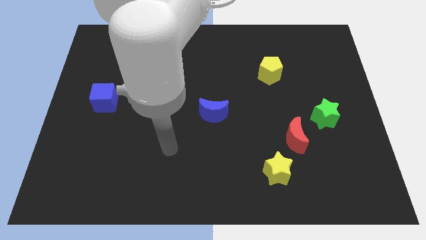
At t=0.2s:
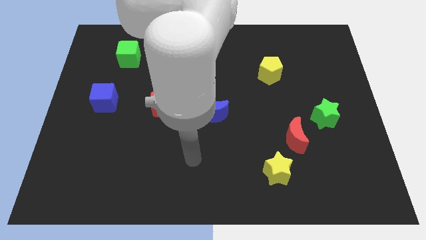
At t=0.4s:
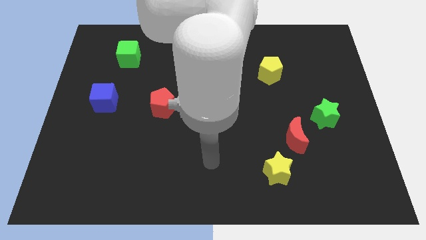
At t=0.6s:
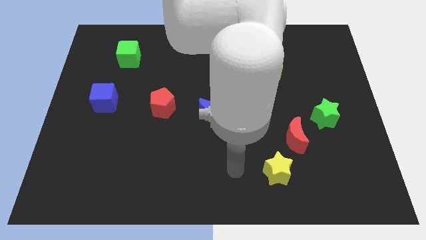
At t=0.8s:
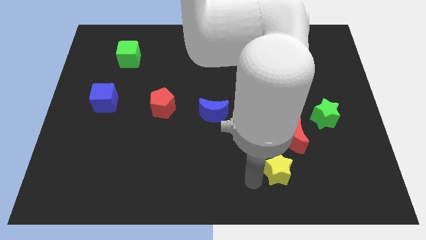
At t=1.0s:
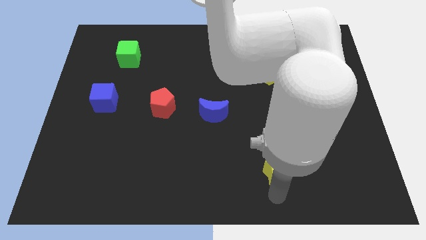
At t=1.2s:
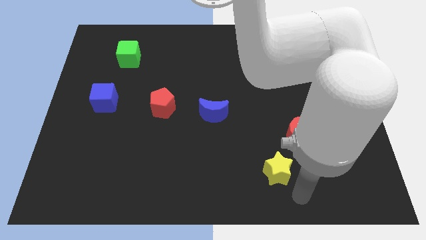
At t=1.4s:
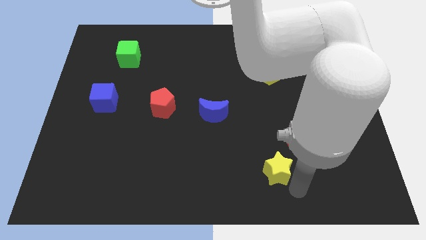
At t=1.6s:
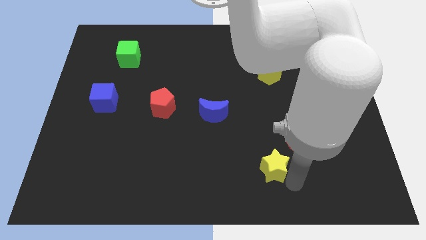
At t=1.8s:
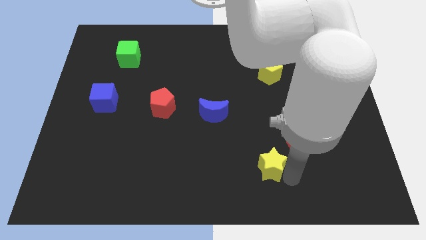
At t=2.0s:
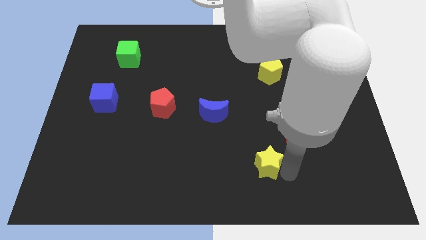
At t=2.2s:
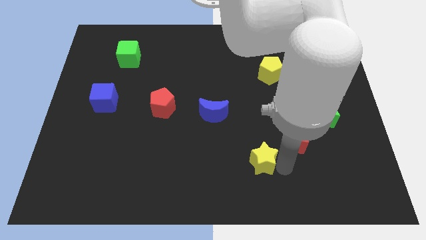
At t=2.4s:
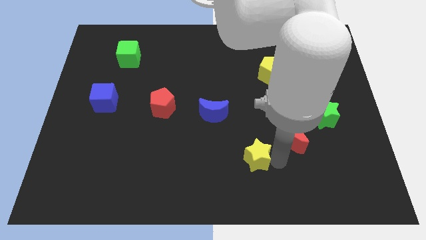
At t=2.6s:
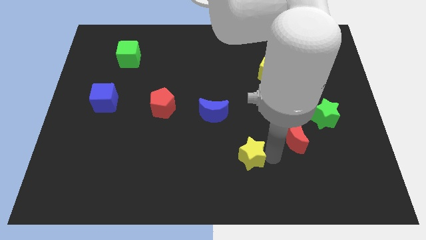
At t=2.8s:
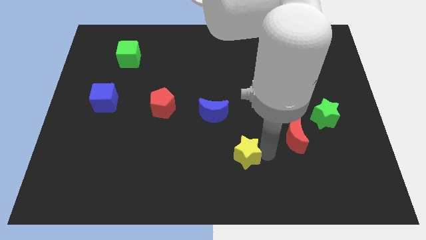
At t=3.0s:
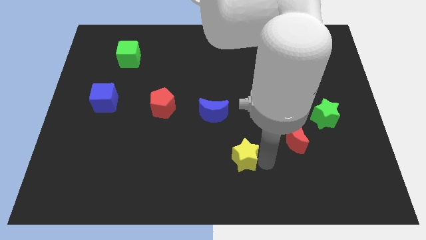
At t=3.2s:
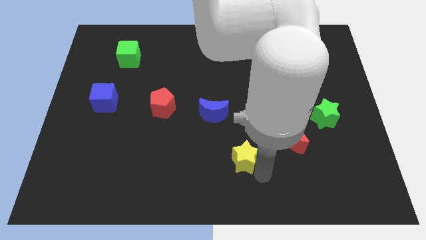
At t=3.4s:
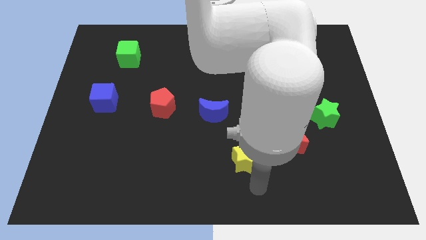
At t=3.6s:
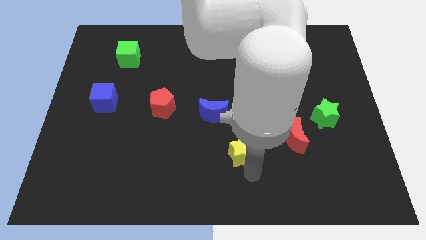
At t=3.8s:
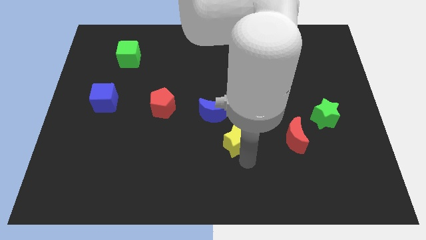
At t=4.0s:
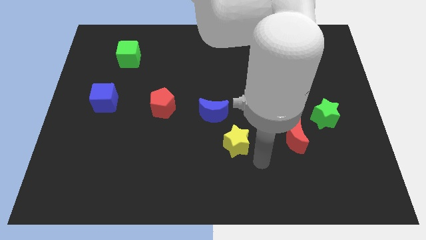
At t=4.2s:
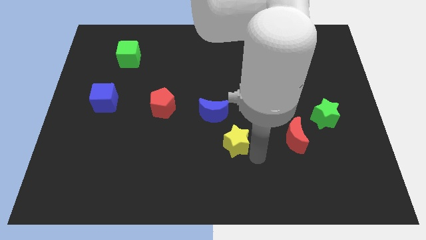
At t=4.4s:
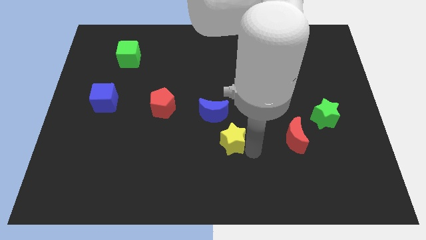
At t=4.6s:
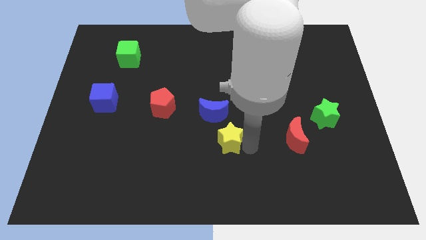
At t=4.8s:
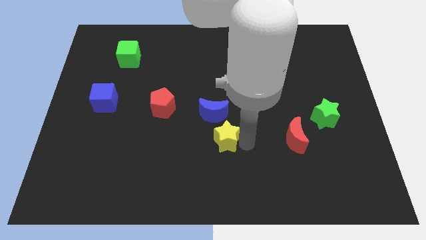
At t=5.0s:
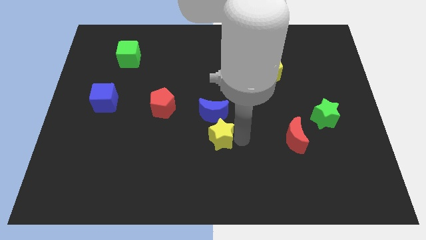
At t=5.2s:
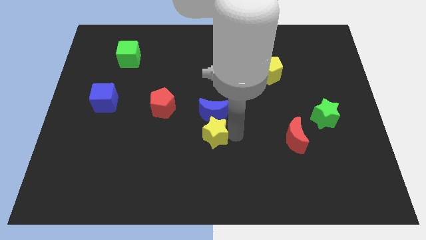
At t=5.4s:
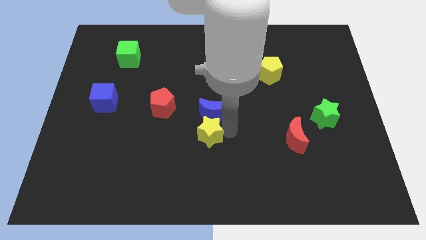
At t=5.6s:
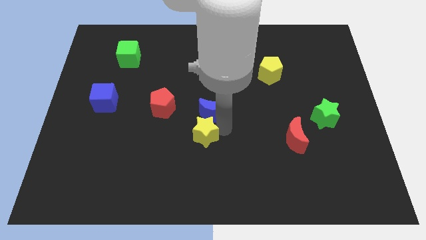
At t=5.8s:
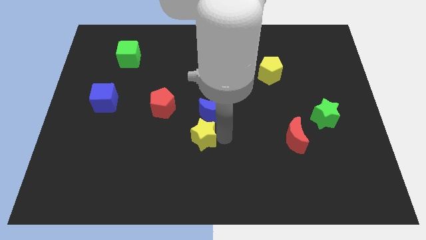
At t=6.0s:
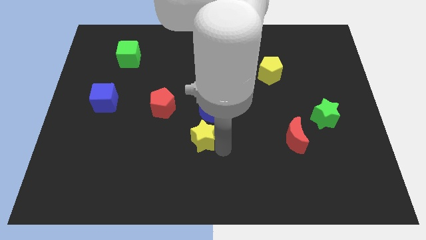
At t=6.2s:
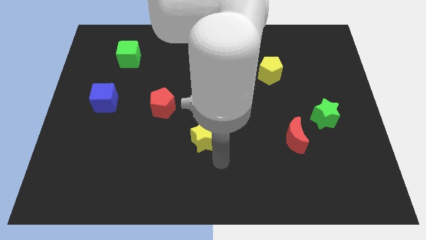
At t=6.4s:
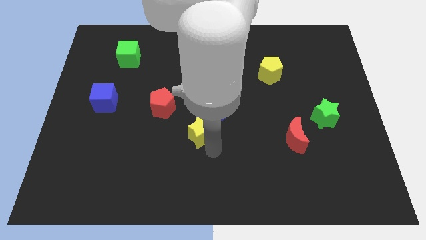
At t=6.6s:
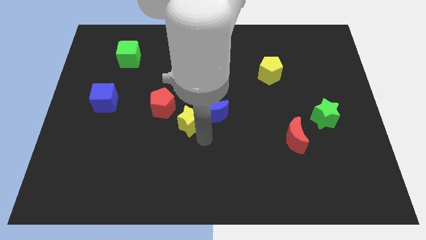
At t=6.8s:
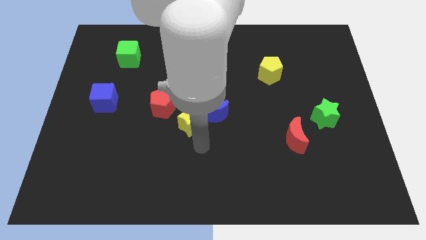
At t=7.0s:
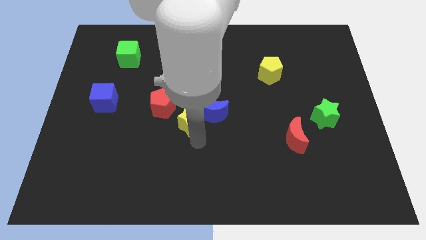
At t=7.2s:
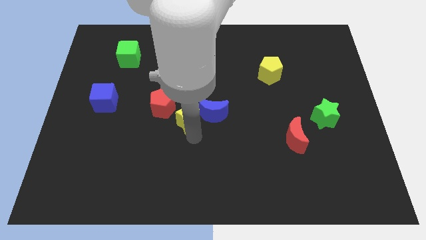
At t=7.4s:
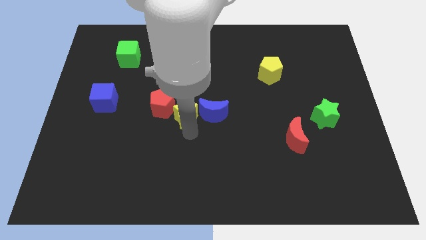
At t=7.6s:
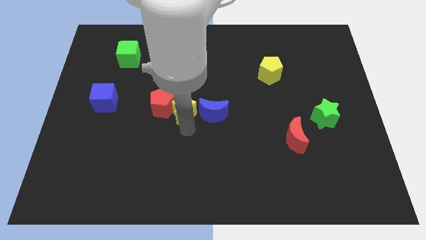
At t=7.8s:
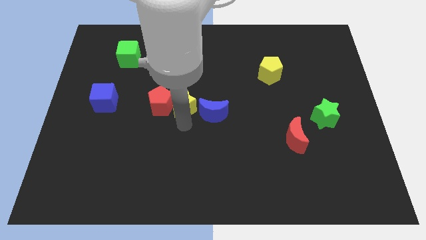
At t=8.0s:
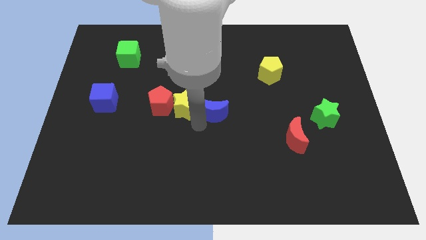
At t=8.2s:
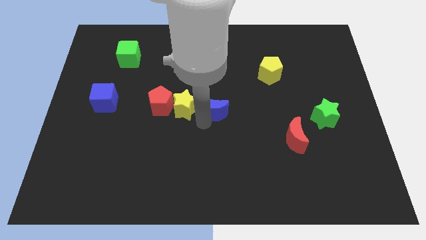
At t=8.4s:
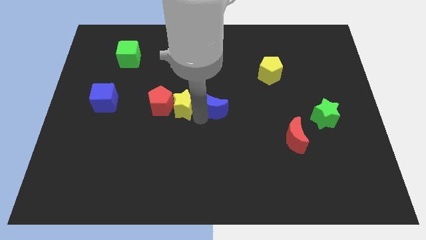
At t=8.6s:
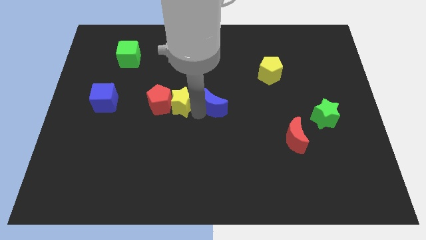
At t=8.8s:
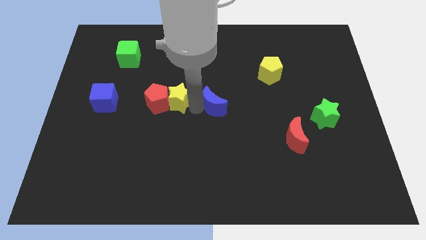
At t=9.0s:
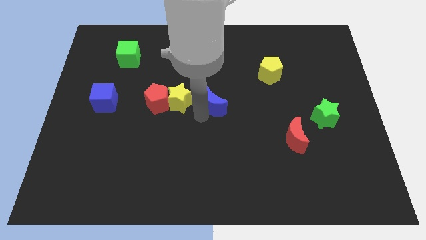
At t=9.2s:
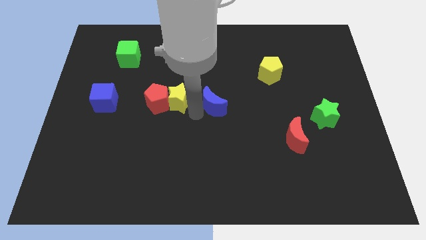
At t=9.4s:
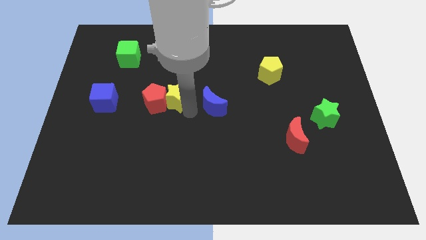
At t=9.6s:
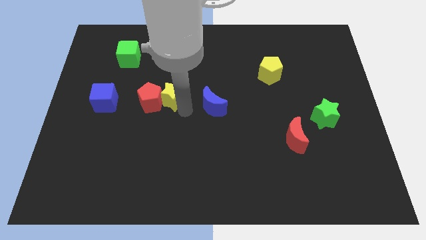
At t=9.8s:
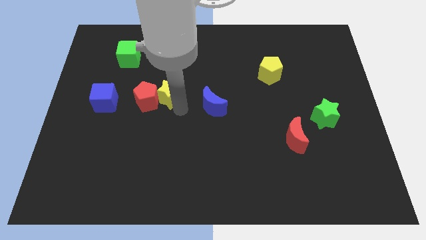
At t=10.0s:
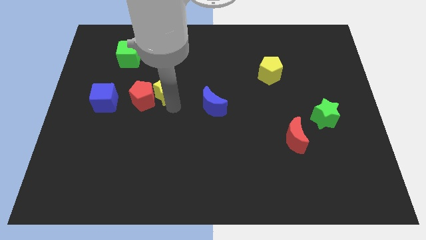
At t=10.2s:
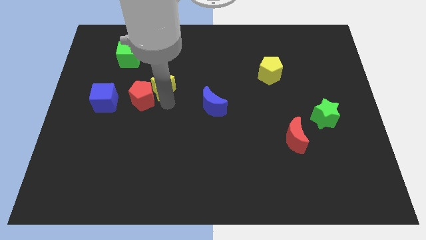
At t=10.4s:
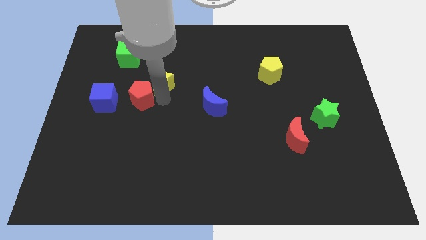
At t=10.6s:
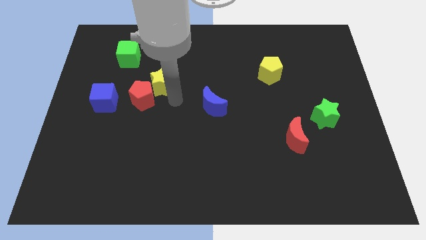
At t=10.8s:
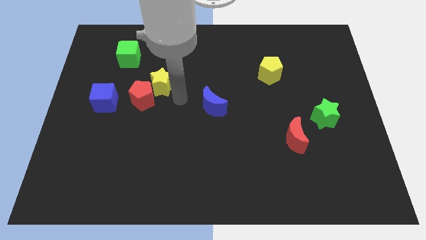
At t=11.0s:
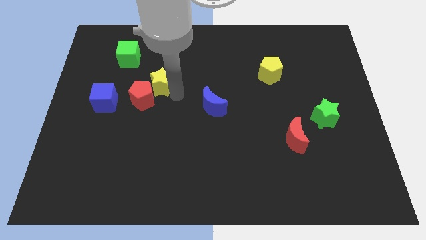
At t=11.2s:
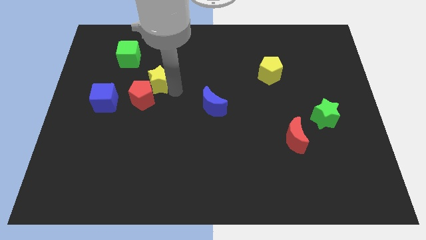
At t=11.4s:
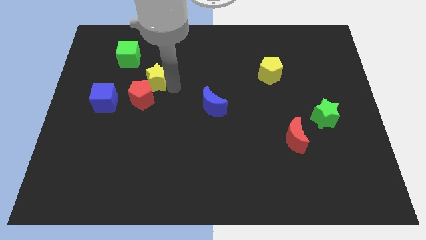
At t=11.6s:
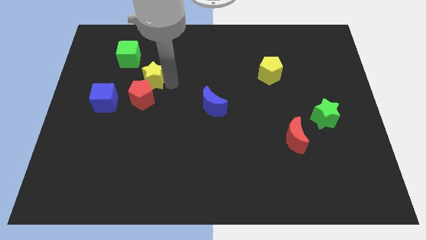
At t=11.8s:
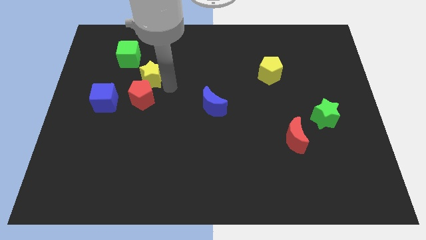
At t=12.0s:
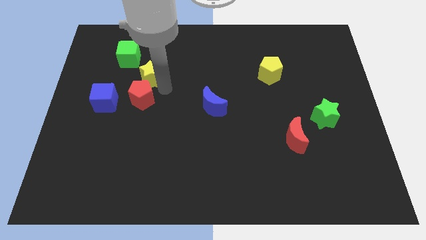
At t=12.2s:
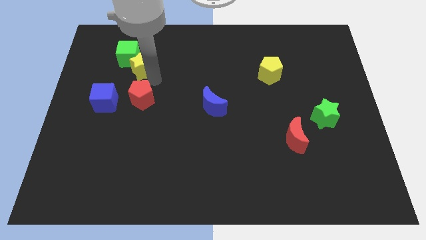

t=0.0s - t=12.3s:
move the yellow star close to the green cube

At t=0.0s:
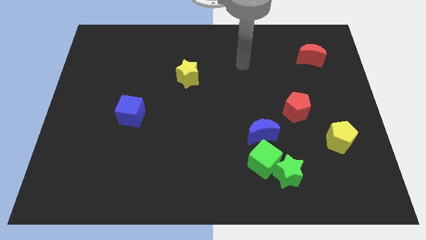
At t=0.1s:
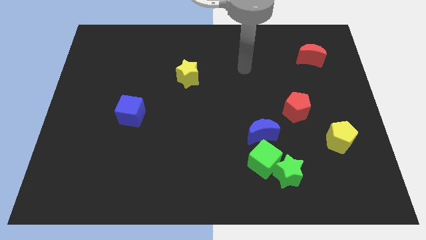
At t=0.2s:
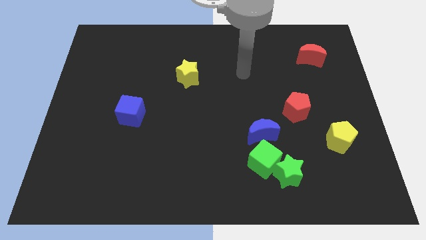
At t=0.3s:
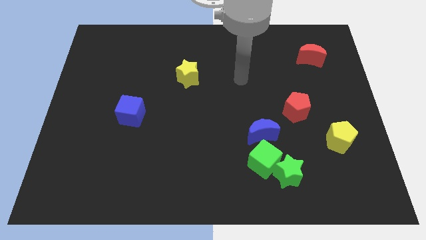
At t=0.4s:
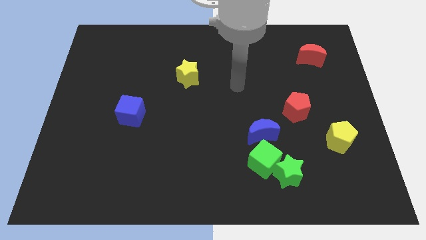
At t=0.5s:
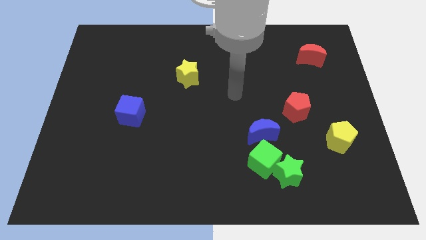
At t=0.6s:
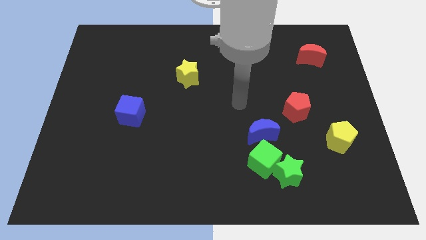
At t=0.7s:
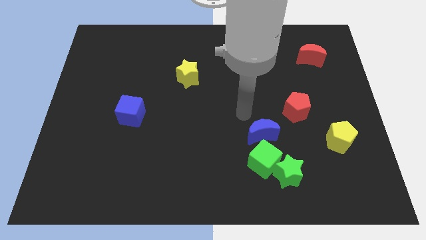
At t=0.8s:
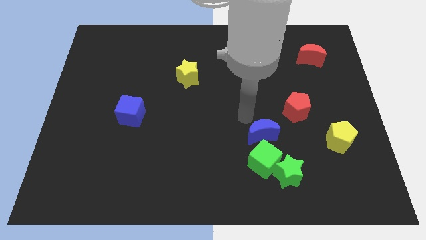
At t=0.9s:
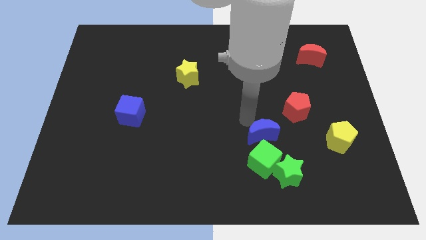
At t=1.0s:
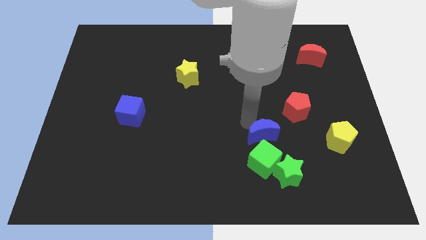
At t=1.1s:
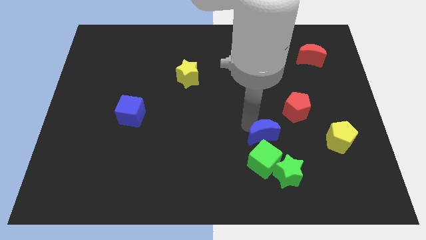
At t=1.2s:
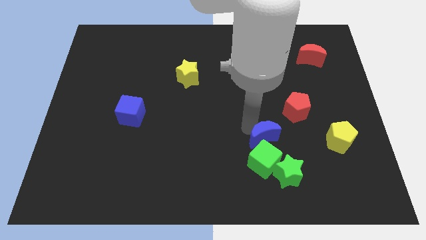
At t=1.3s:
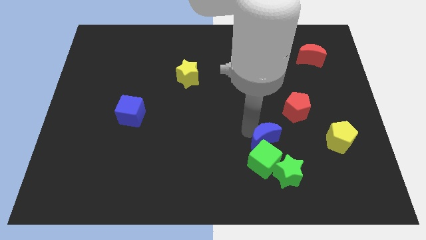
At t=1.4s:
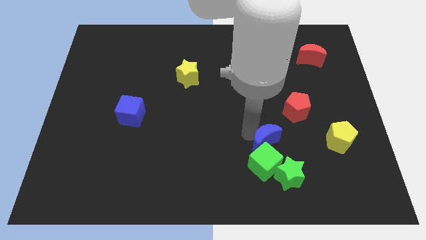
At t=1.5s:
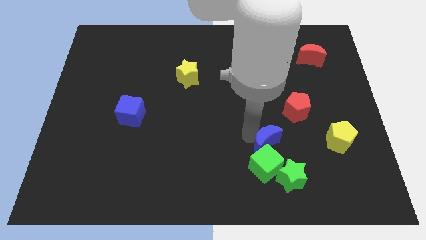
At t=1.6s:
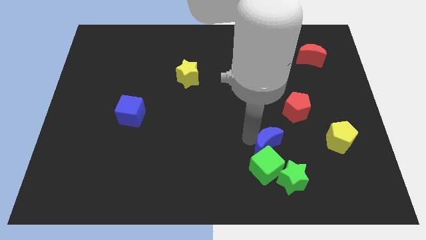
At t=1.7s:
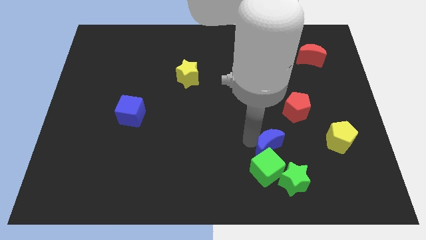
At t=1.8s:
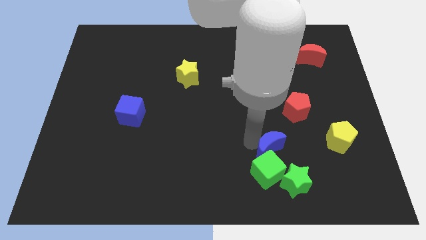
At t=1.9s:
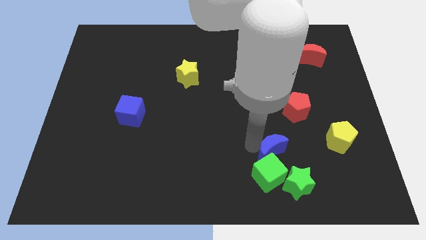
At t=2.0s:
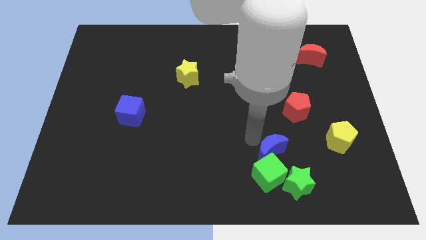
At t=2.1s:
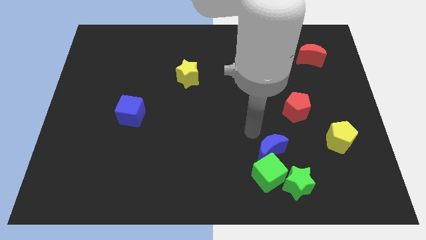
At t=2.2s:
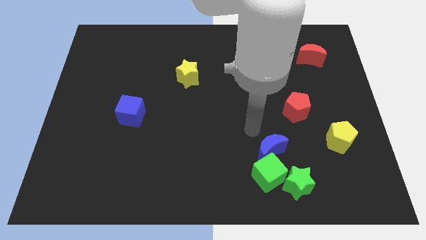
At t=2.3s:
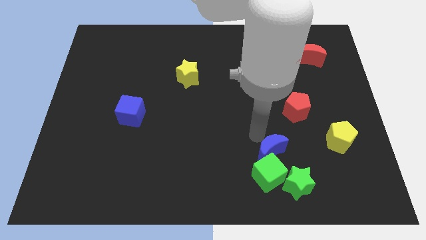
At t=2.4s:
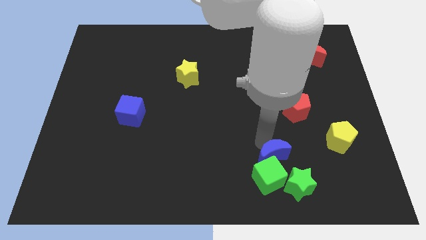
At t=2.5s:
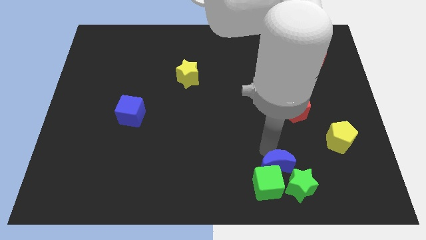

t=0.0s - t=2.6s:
move the blue moon to the green star
